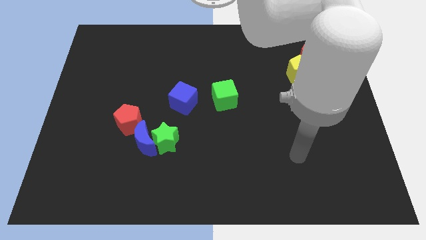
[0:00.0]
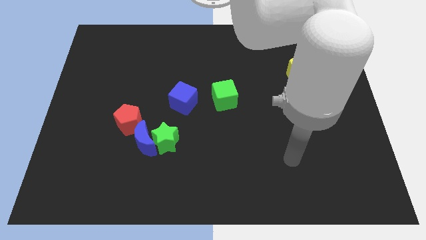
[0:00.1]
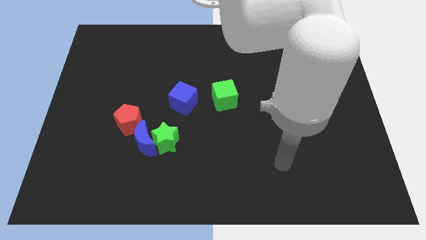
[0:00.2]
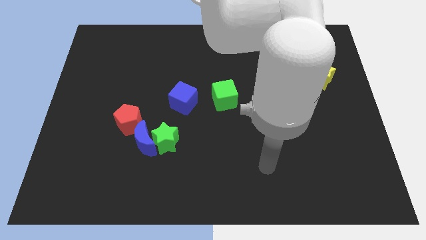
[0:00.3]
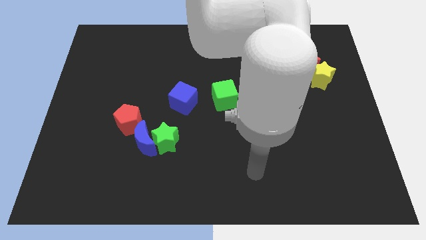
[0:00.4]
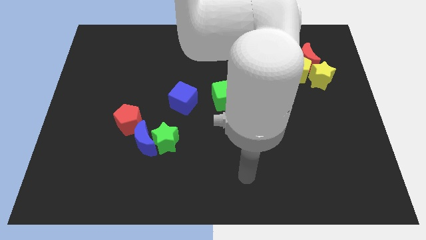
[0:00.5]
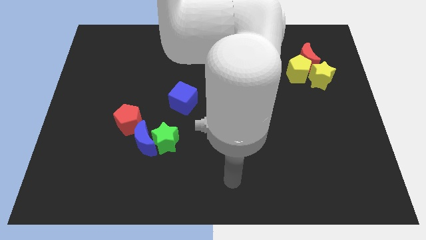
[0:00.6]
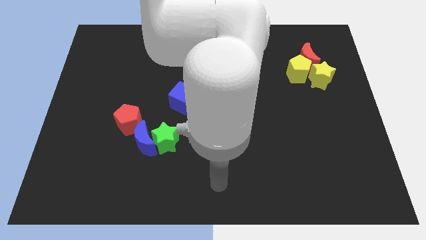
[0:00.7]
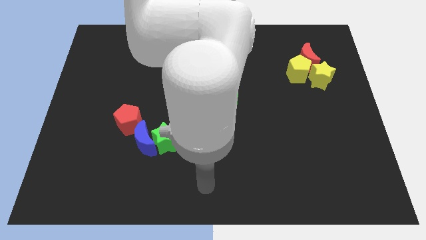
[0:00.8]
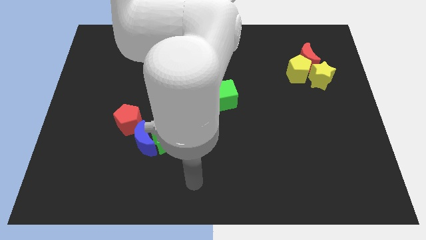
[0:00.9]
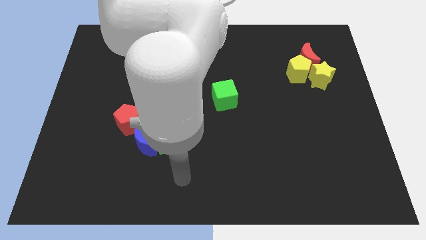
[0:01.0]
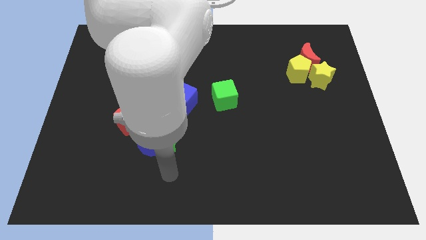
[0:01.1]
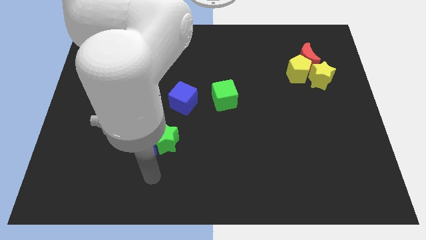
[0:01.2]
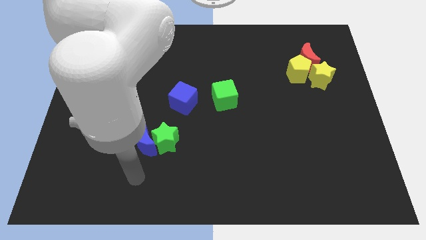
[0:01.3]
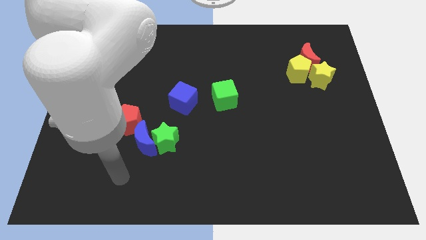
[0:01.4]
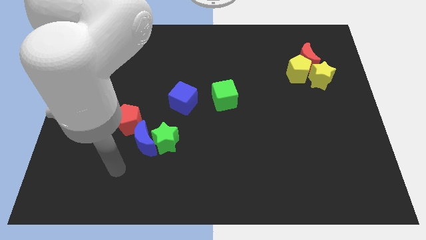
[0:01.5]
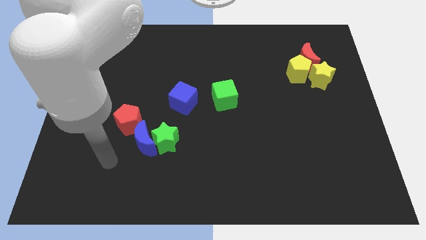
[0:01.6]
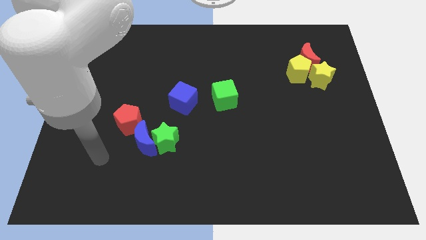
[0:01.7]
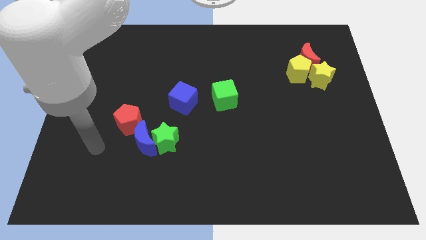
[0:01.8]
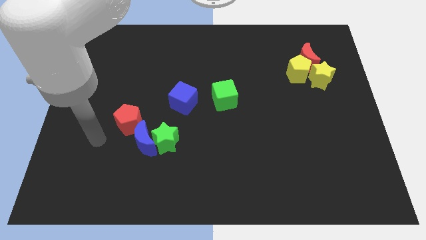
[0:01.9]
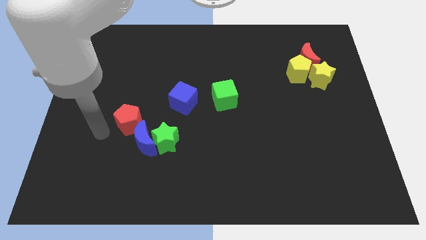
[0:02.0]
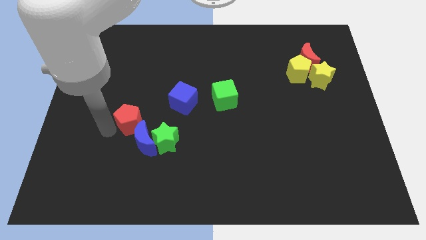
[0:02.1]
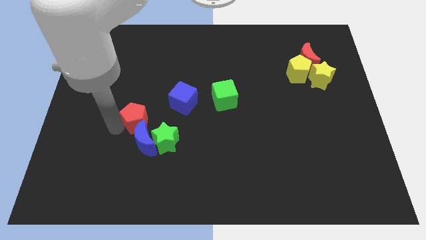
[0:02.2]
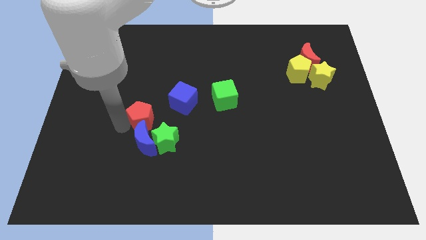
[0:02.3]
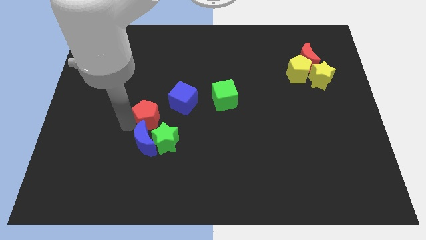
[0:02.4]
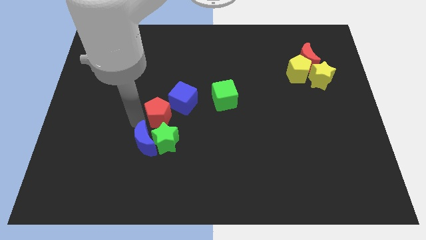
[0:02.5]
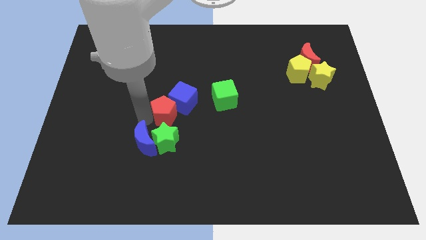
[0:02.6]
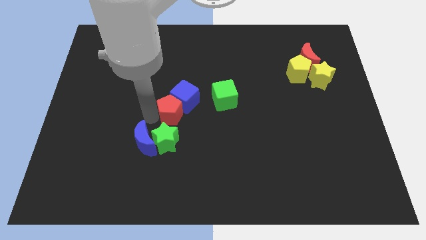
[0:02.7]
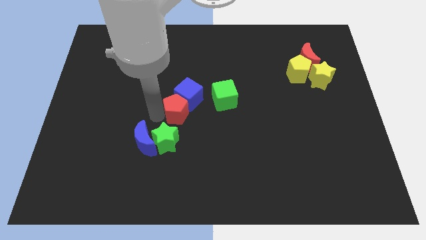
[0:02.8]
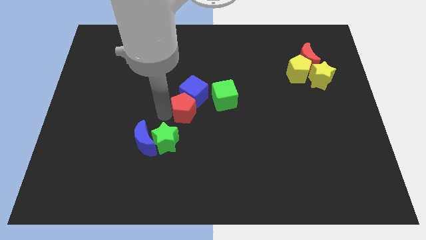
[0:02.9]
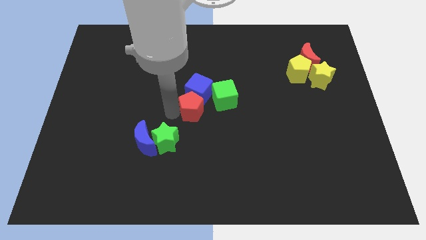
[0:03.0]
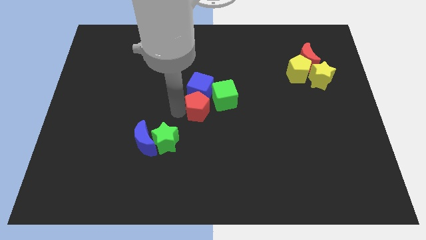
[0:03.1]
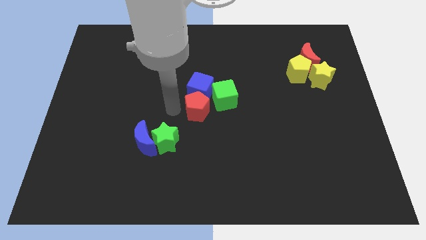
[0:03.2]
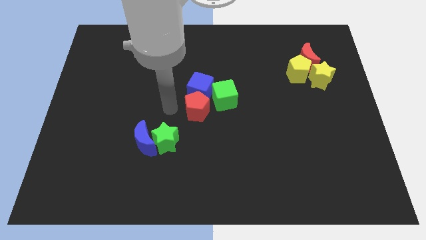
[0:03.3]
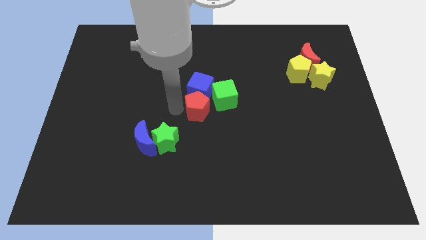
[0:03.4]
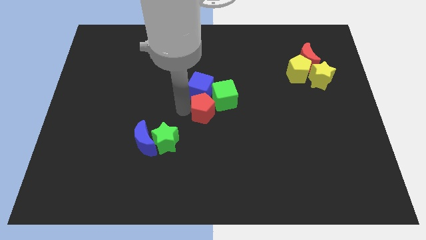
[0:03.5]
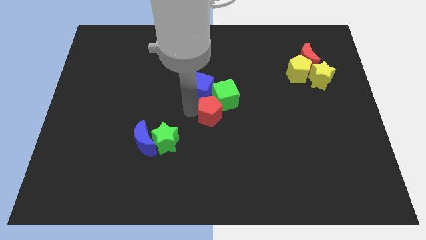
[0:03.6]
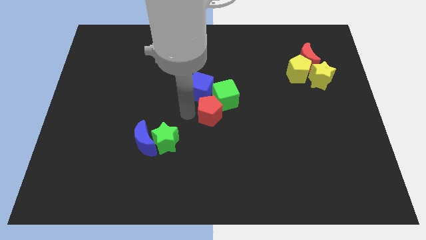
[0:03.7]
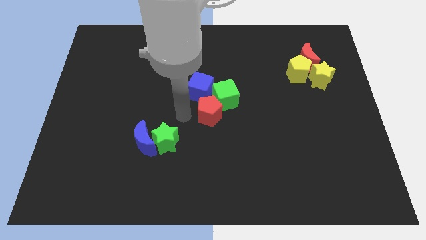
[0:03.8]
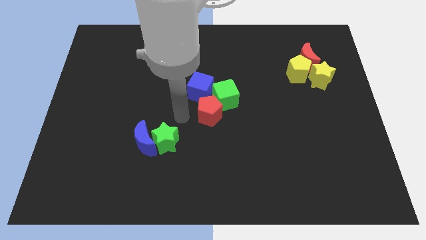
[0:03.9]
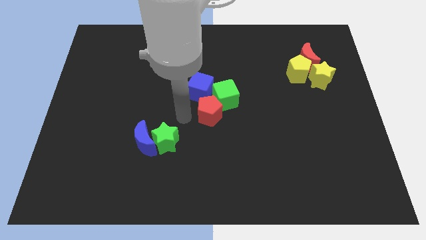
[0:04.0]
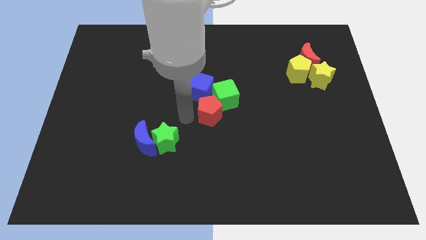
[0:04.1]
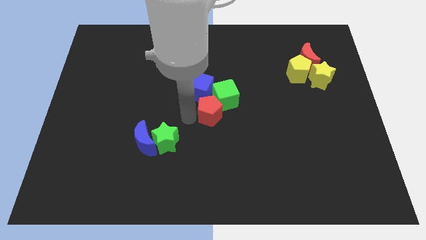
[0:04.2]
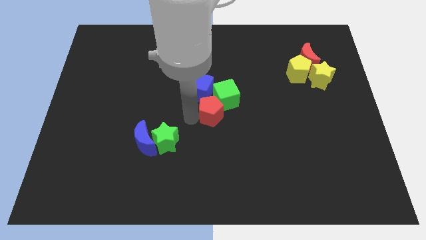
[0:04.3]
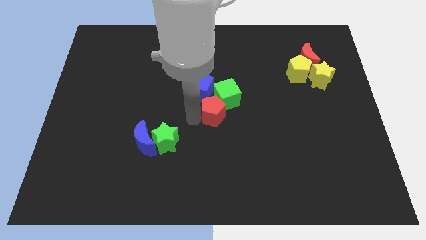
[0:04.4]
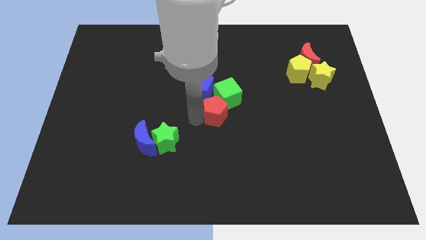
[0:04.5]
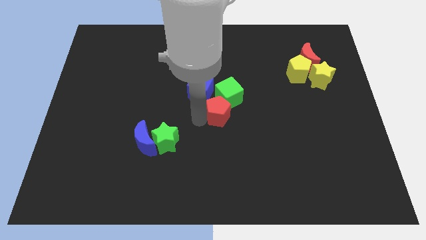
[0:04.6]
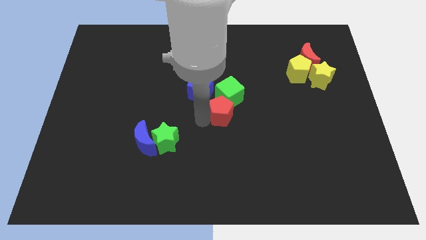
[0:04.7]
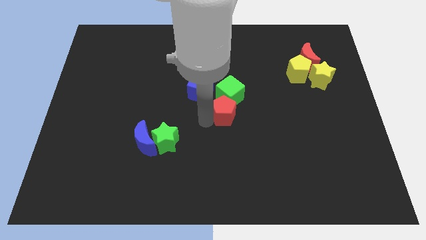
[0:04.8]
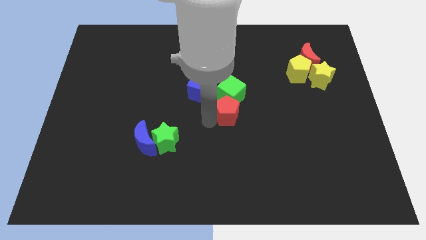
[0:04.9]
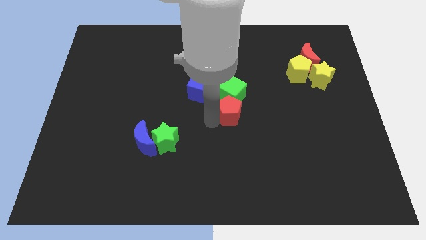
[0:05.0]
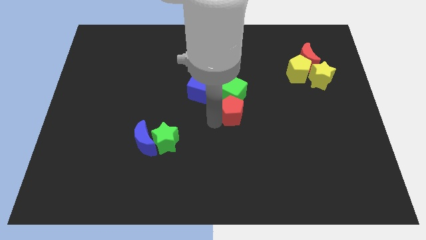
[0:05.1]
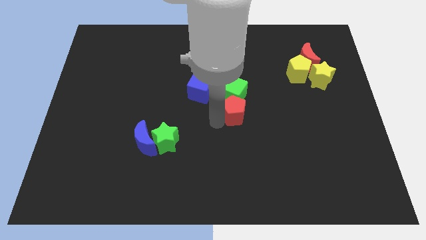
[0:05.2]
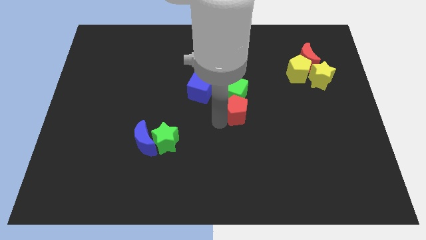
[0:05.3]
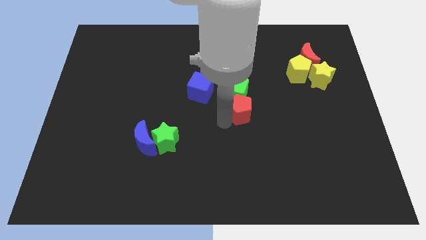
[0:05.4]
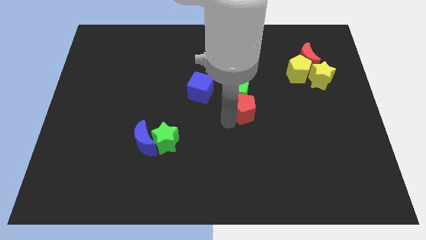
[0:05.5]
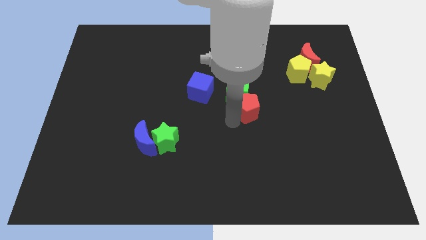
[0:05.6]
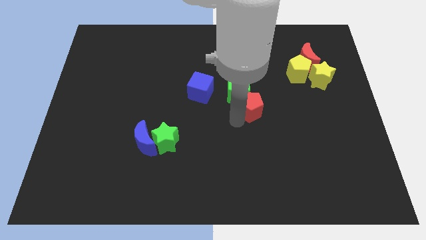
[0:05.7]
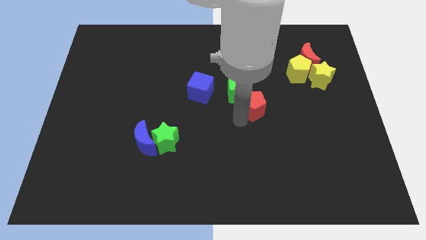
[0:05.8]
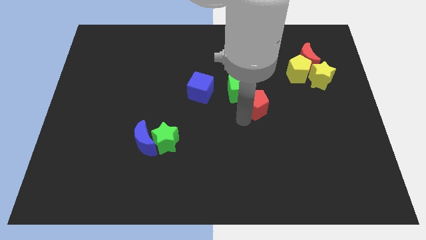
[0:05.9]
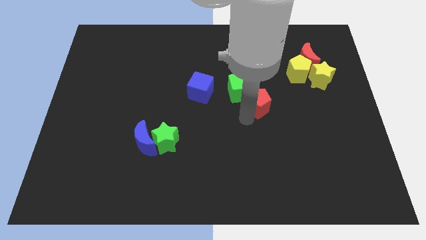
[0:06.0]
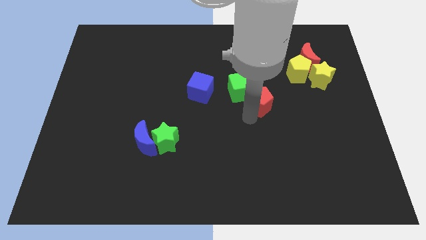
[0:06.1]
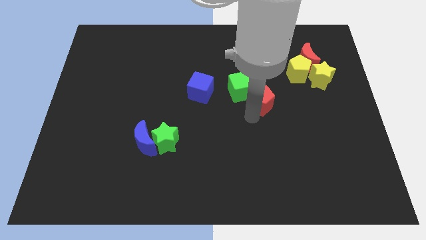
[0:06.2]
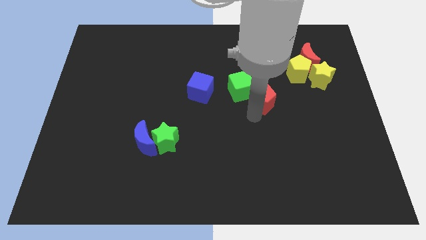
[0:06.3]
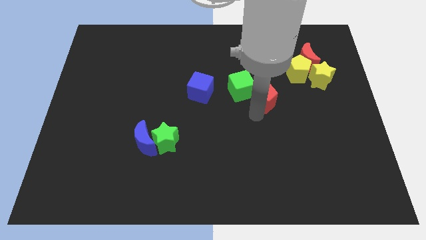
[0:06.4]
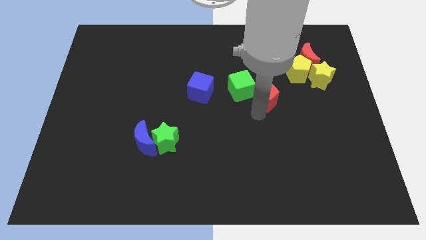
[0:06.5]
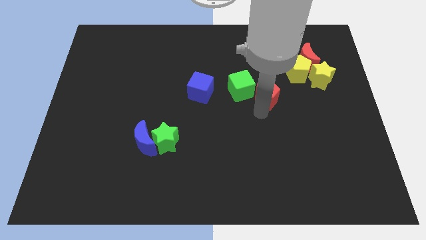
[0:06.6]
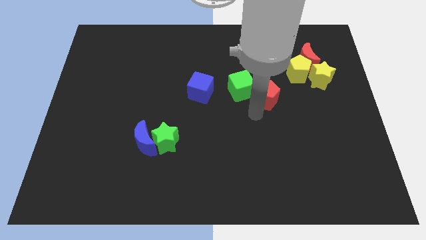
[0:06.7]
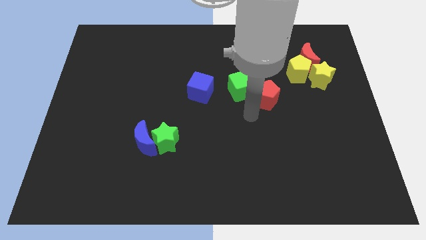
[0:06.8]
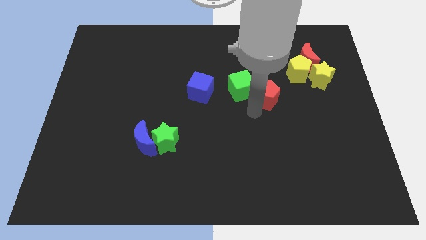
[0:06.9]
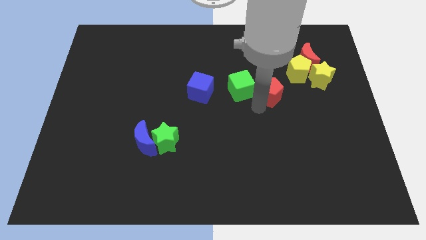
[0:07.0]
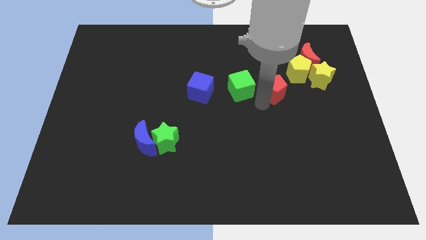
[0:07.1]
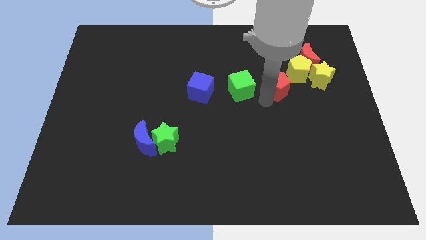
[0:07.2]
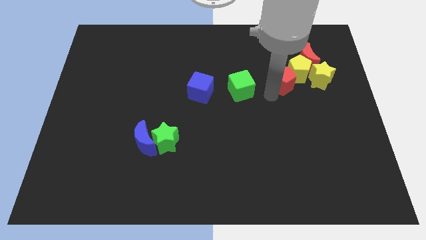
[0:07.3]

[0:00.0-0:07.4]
slide the red pentagon next to the yellow pentagon
